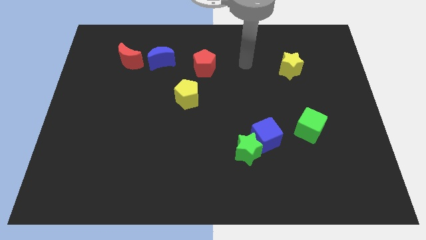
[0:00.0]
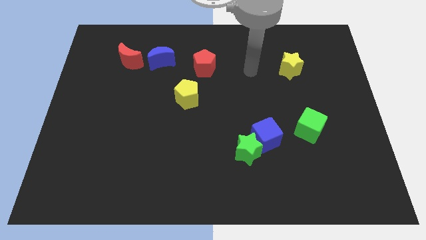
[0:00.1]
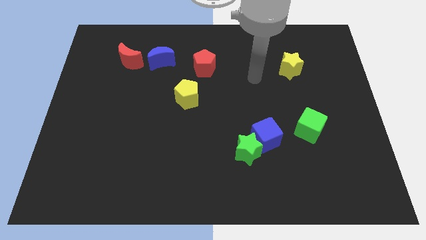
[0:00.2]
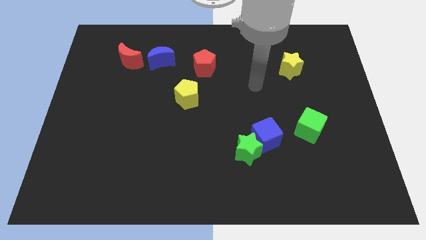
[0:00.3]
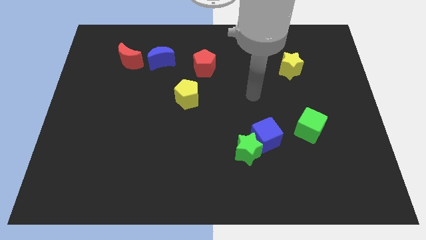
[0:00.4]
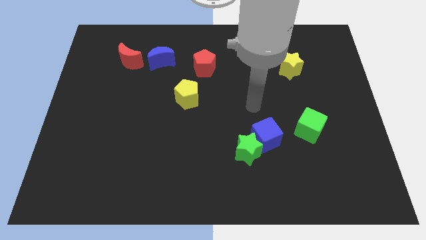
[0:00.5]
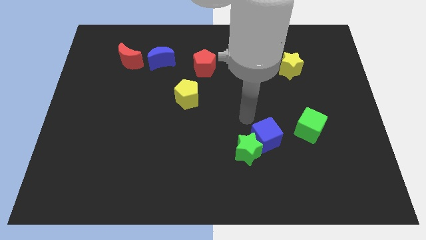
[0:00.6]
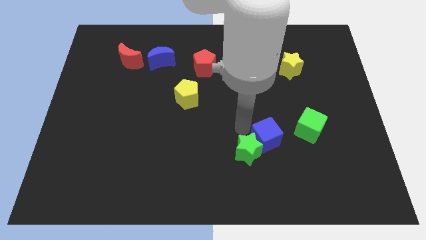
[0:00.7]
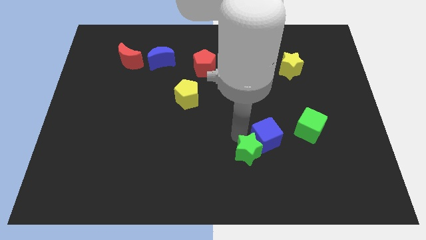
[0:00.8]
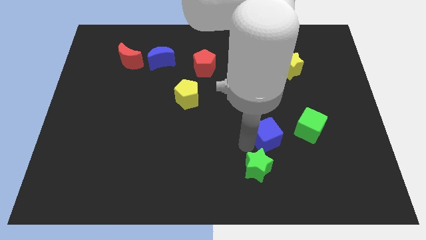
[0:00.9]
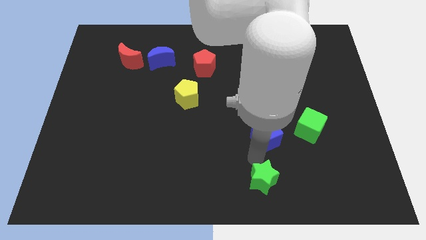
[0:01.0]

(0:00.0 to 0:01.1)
pull the blue cube apart from the green star

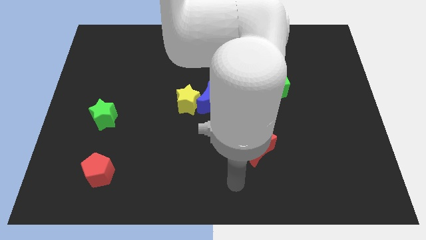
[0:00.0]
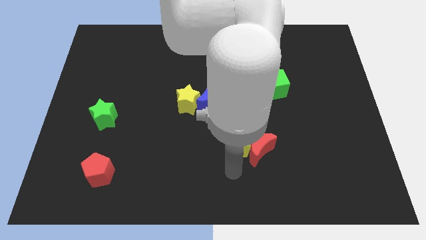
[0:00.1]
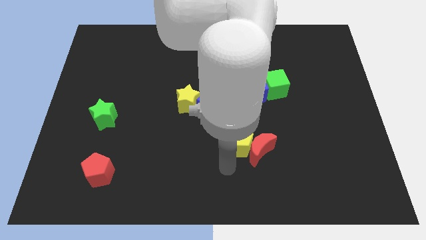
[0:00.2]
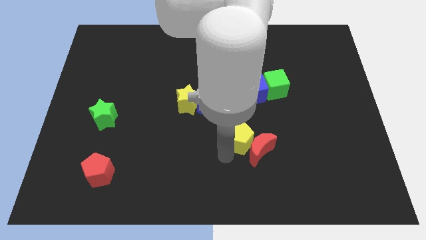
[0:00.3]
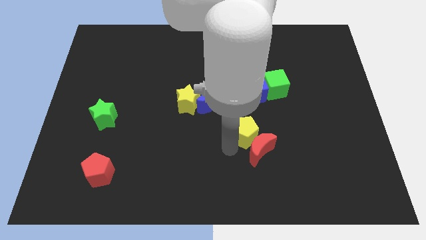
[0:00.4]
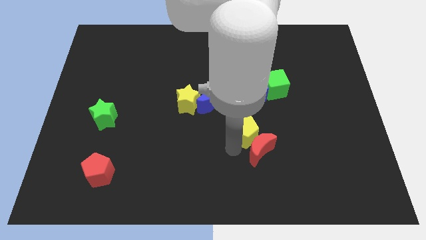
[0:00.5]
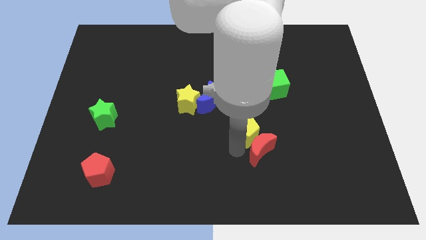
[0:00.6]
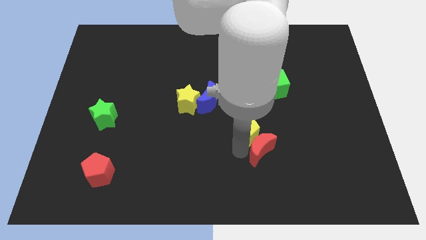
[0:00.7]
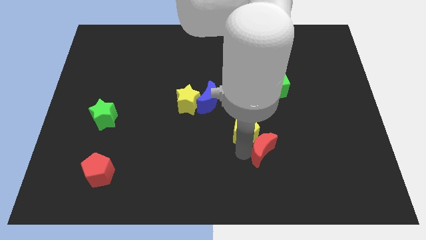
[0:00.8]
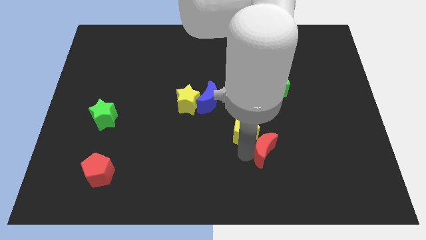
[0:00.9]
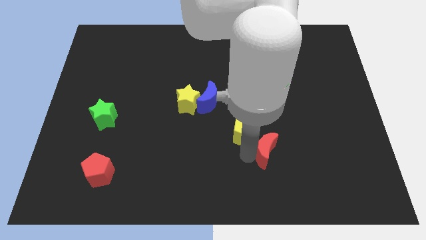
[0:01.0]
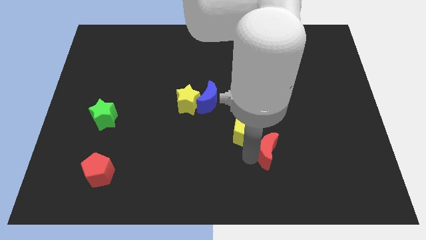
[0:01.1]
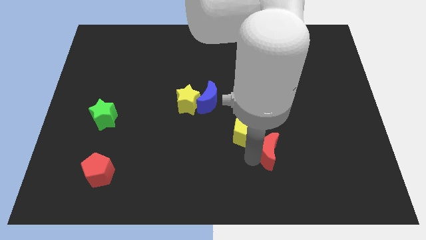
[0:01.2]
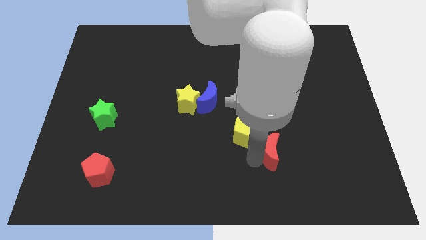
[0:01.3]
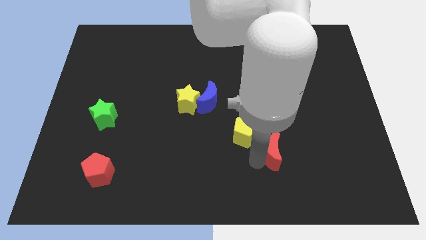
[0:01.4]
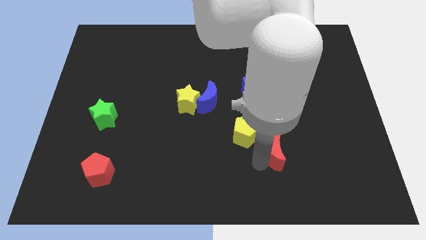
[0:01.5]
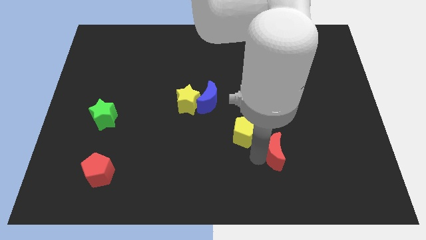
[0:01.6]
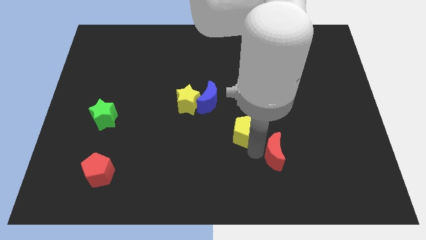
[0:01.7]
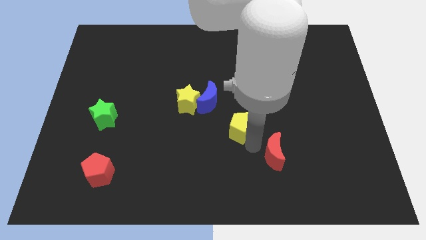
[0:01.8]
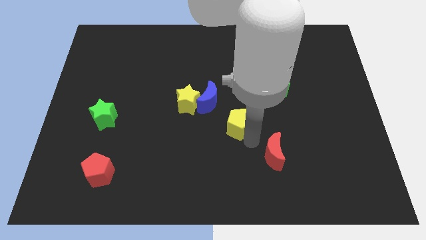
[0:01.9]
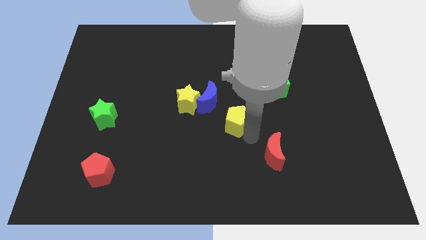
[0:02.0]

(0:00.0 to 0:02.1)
separate the red moon from the yellow pentagon

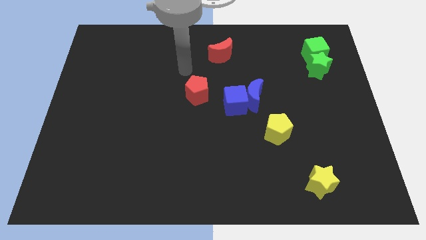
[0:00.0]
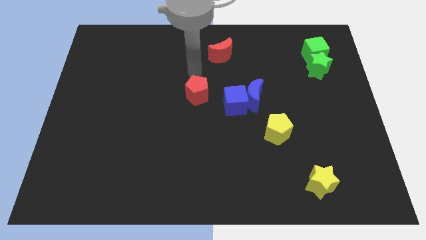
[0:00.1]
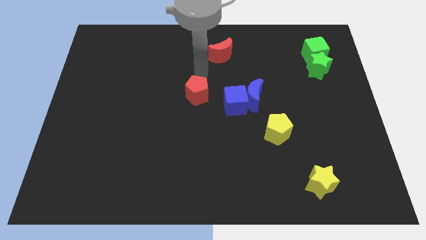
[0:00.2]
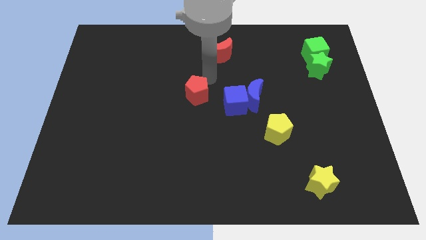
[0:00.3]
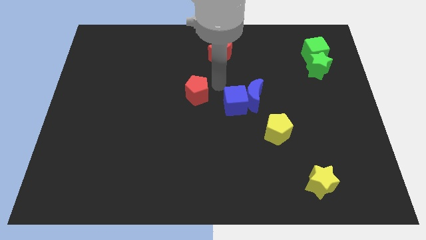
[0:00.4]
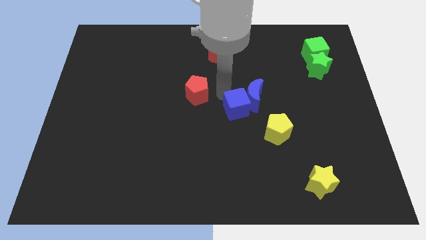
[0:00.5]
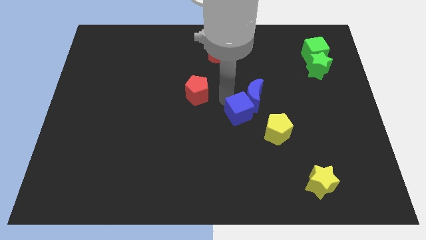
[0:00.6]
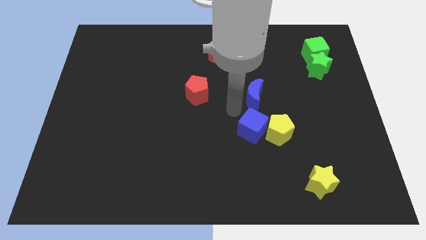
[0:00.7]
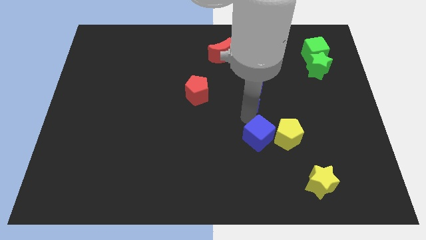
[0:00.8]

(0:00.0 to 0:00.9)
separate the blue moon from the blue cube

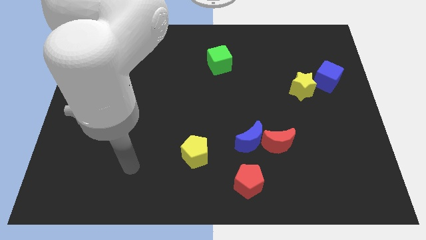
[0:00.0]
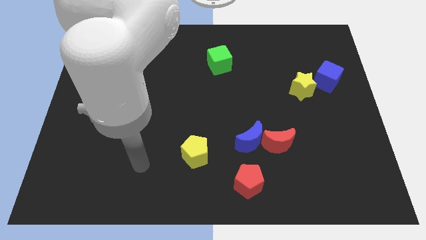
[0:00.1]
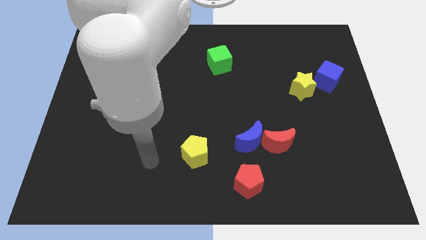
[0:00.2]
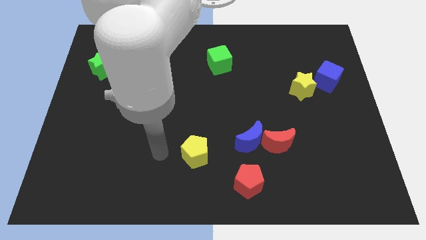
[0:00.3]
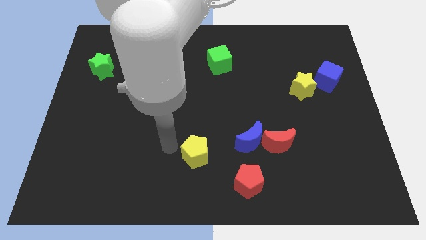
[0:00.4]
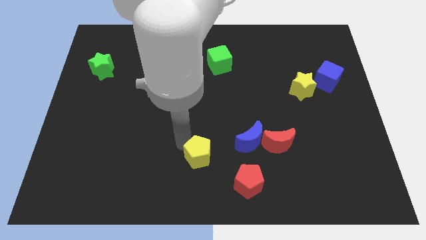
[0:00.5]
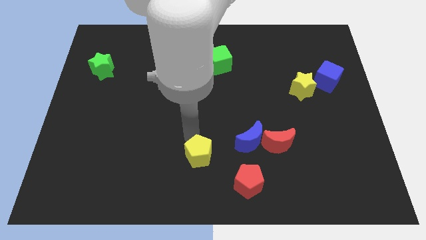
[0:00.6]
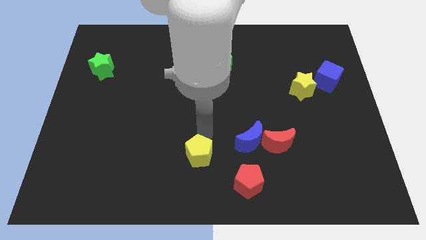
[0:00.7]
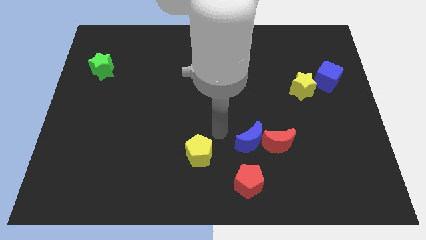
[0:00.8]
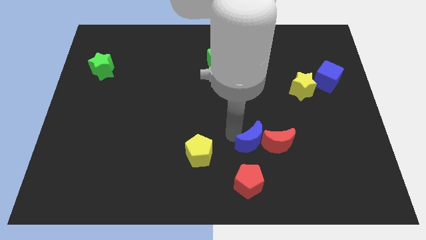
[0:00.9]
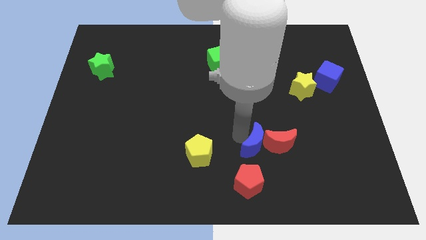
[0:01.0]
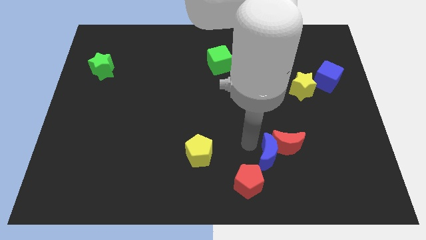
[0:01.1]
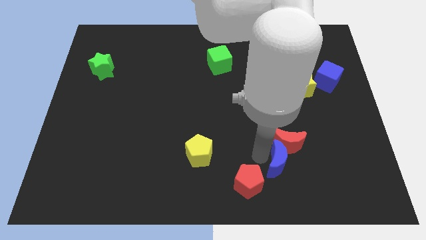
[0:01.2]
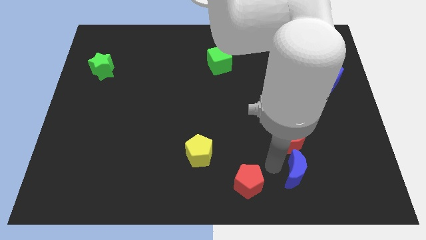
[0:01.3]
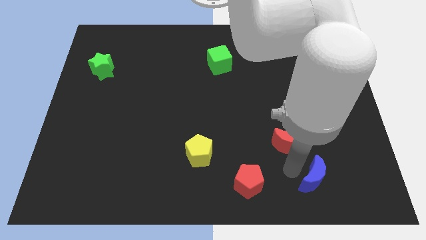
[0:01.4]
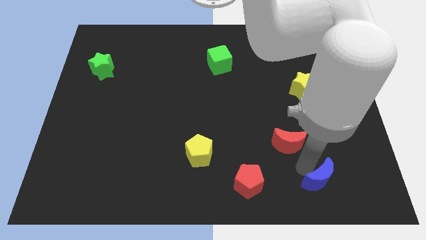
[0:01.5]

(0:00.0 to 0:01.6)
separate the red moon from the blue moon

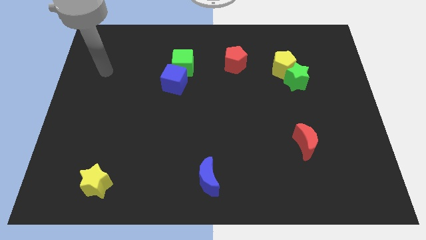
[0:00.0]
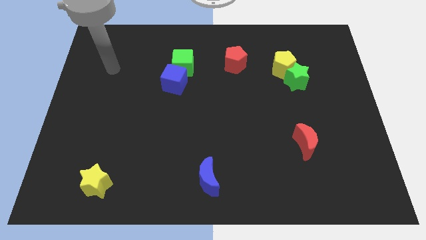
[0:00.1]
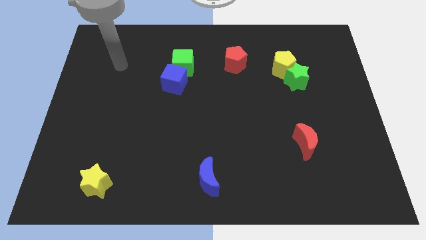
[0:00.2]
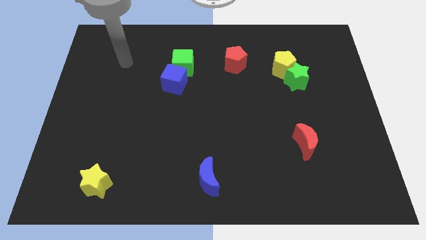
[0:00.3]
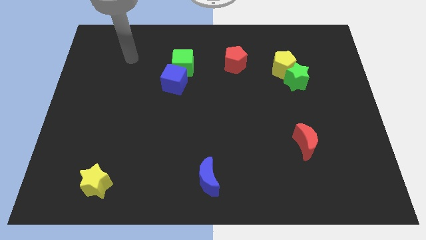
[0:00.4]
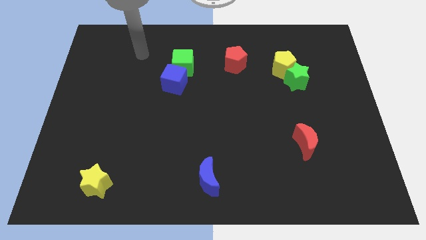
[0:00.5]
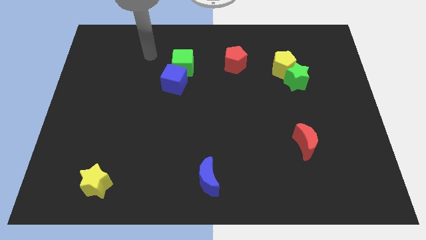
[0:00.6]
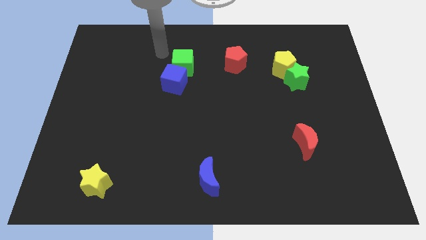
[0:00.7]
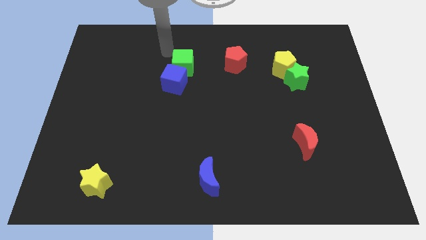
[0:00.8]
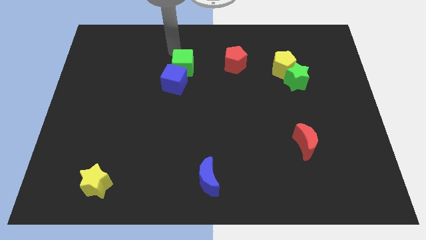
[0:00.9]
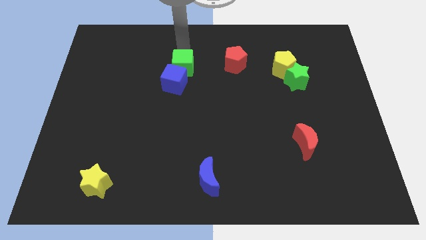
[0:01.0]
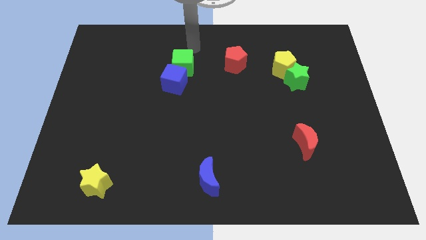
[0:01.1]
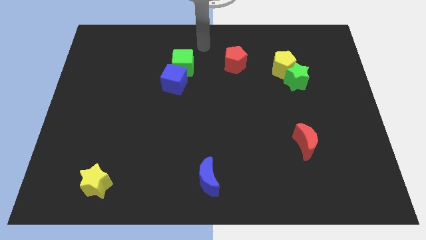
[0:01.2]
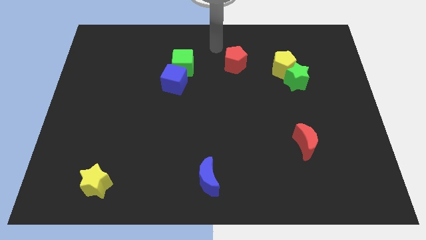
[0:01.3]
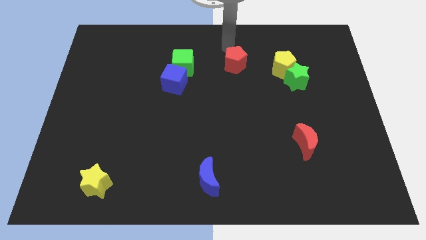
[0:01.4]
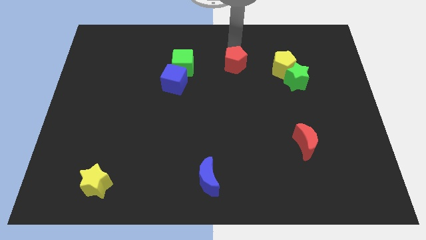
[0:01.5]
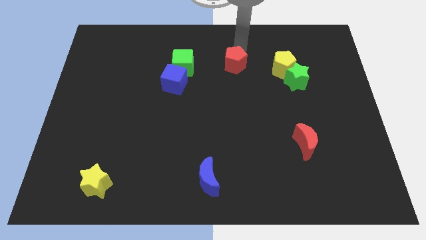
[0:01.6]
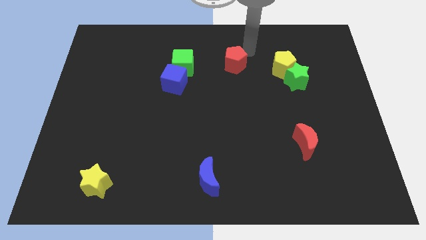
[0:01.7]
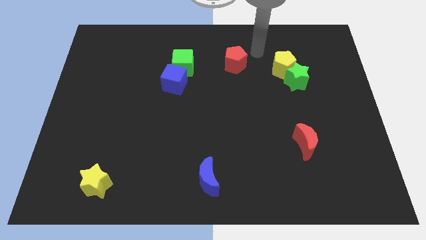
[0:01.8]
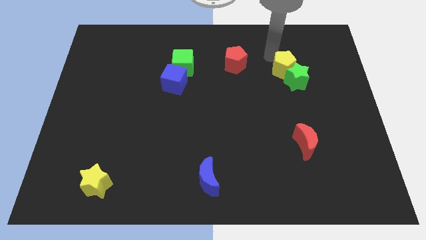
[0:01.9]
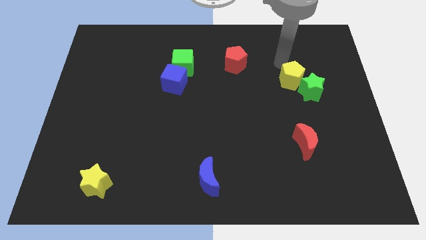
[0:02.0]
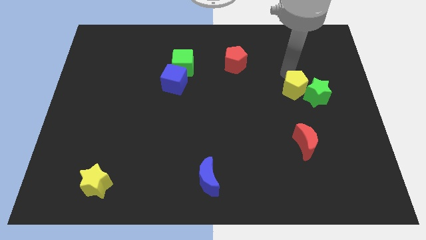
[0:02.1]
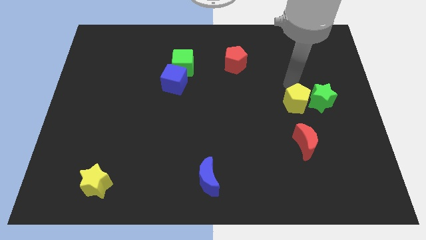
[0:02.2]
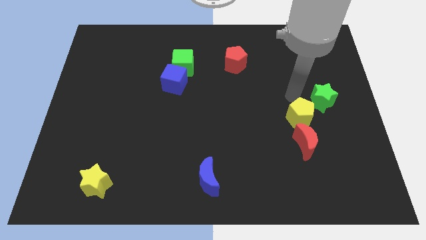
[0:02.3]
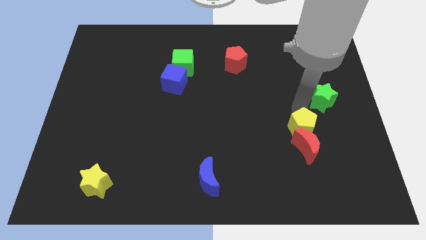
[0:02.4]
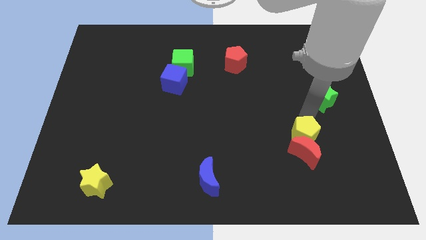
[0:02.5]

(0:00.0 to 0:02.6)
pull the green star apart from the yellow pentagon

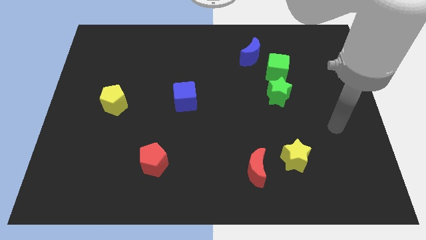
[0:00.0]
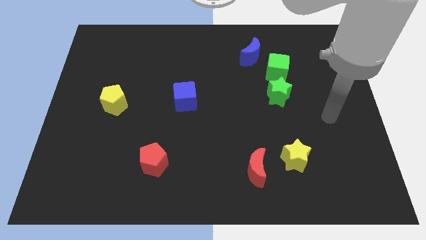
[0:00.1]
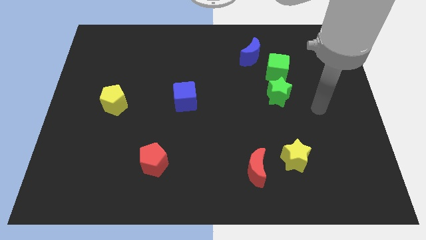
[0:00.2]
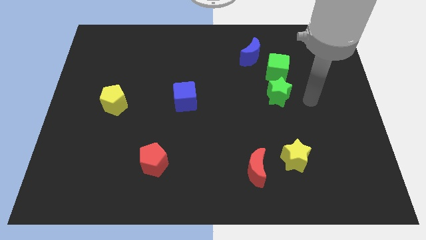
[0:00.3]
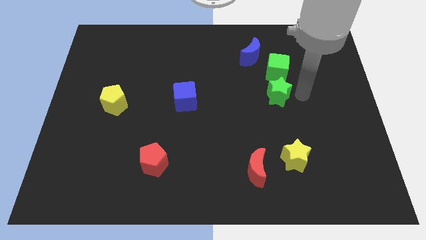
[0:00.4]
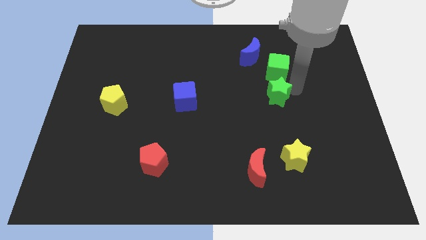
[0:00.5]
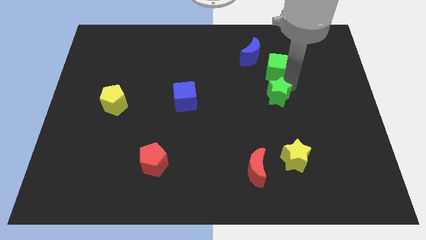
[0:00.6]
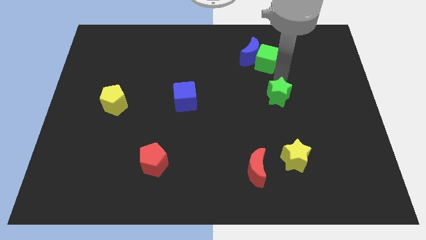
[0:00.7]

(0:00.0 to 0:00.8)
move the green star away from the green cube

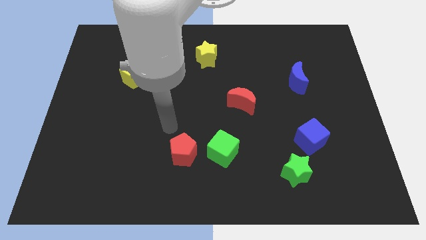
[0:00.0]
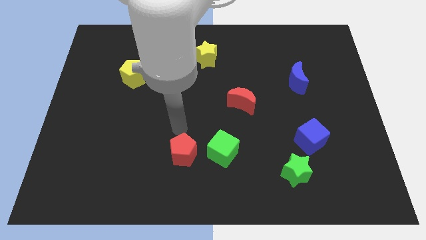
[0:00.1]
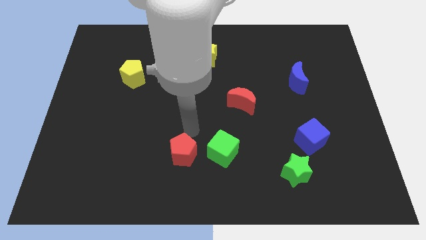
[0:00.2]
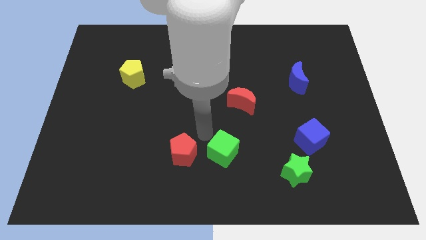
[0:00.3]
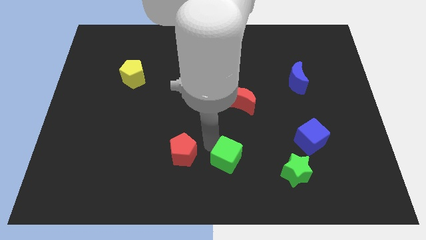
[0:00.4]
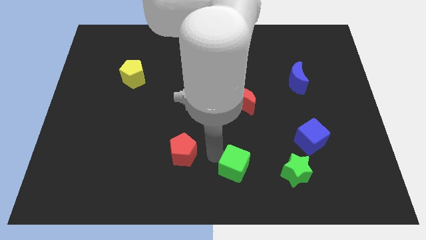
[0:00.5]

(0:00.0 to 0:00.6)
separate the red pentagon from the green cube
